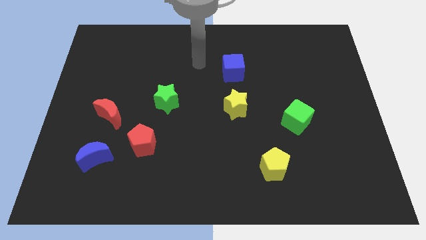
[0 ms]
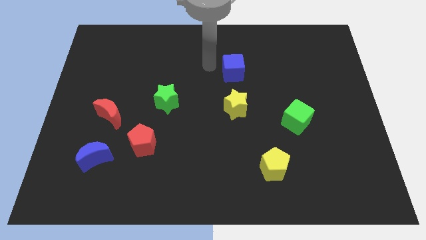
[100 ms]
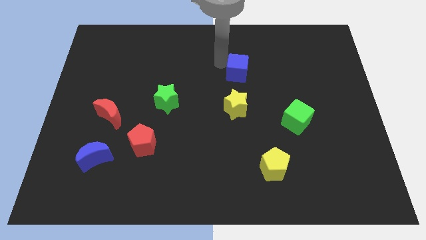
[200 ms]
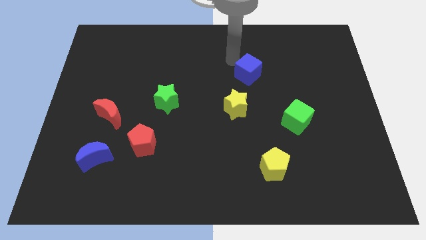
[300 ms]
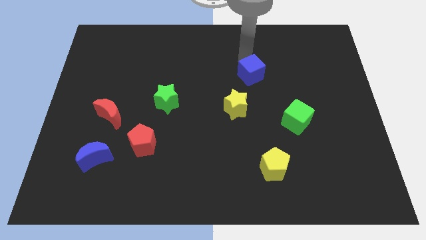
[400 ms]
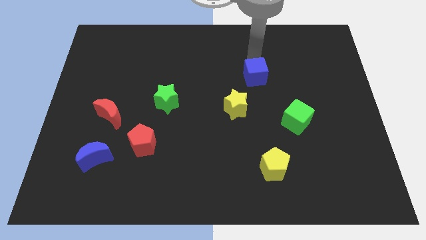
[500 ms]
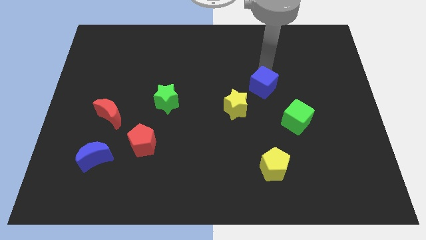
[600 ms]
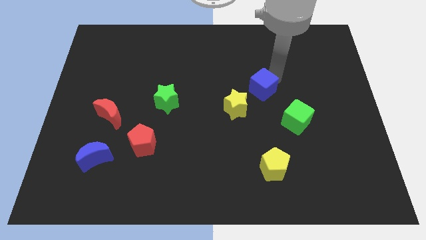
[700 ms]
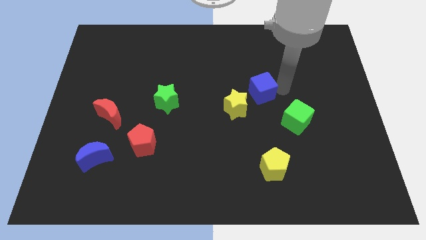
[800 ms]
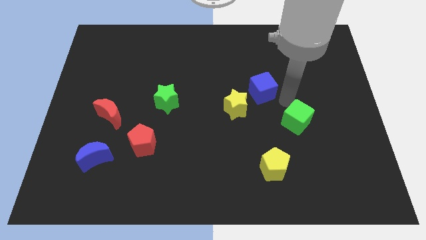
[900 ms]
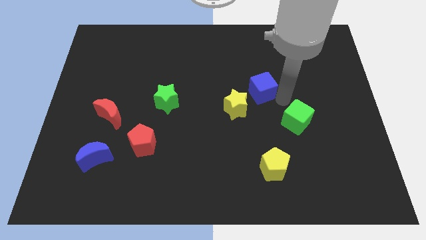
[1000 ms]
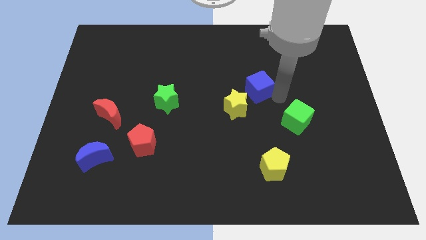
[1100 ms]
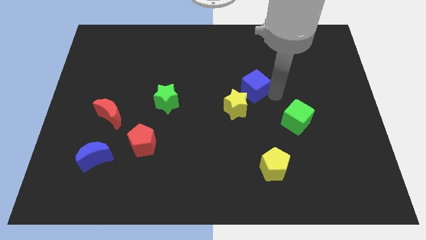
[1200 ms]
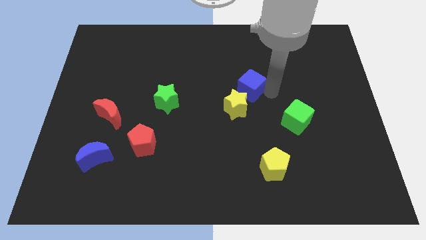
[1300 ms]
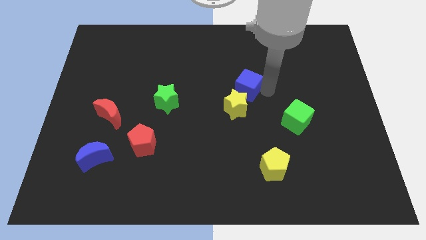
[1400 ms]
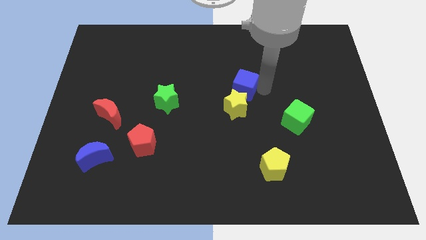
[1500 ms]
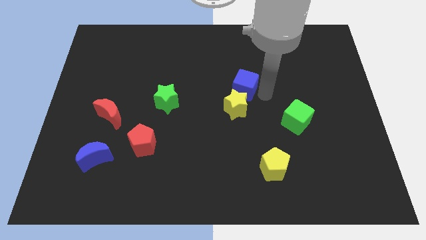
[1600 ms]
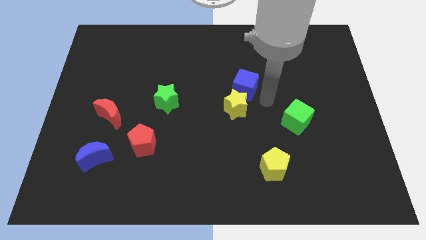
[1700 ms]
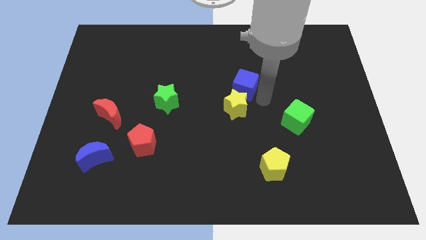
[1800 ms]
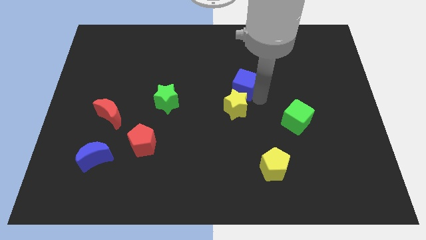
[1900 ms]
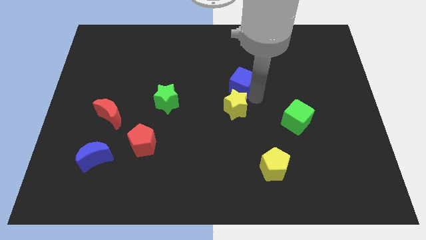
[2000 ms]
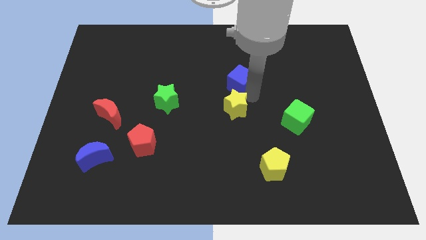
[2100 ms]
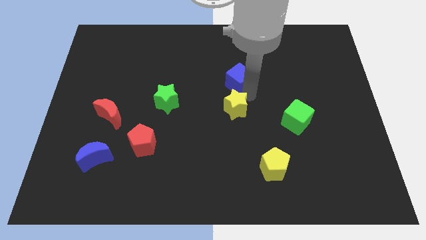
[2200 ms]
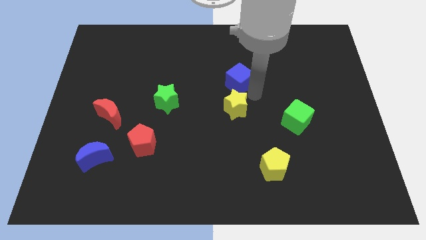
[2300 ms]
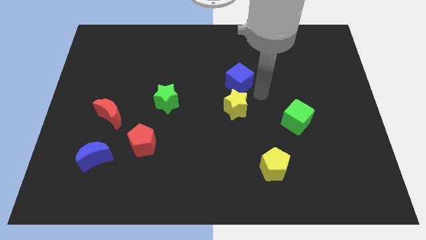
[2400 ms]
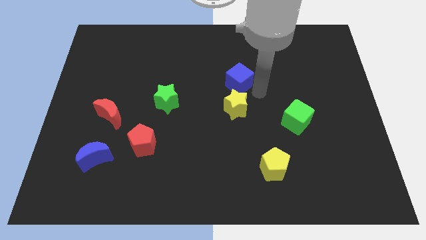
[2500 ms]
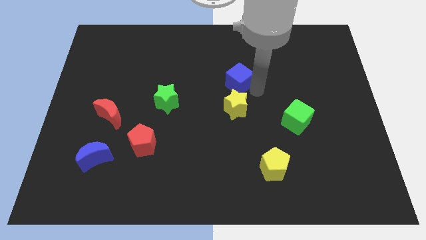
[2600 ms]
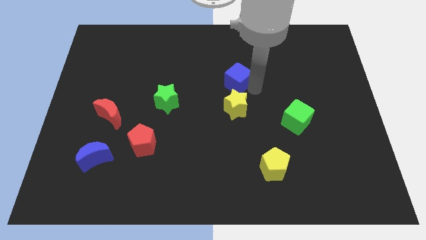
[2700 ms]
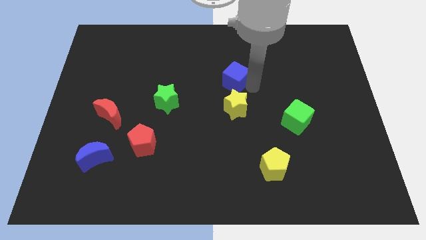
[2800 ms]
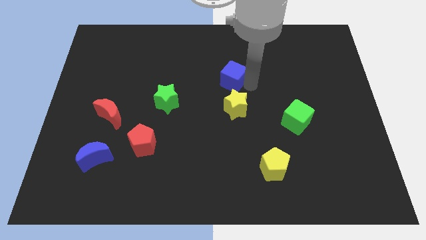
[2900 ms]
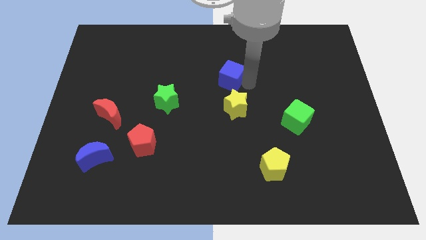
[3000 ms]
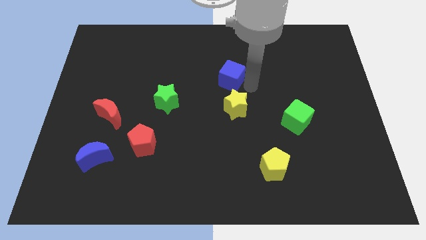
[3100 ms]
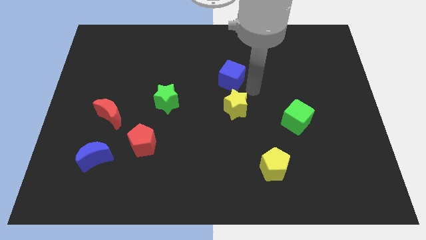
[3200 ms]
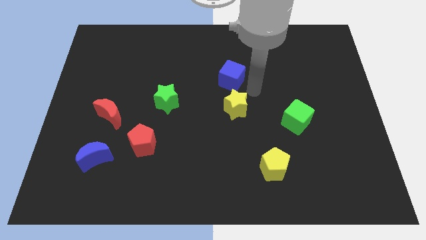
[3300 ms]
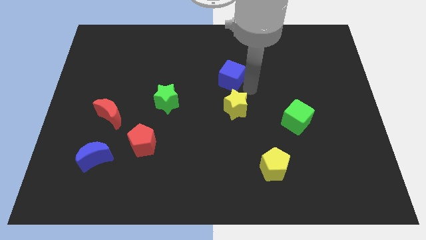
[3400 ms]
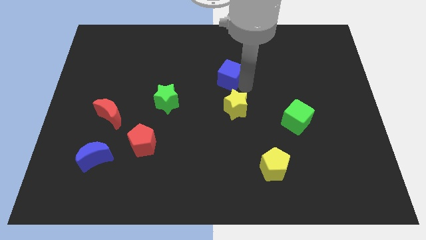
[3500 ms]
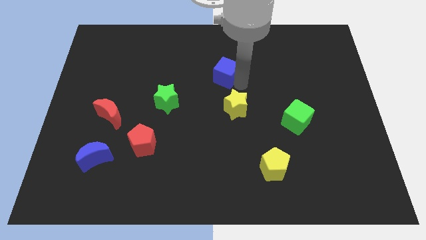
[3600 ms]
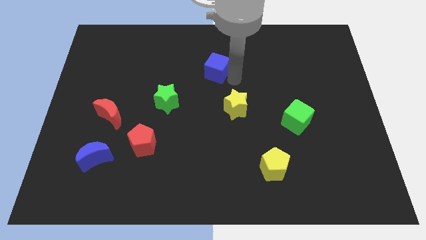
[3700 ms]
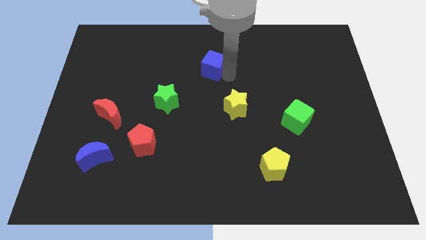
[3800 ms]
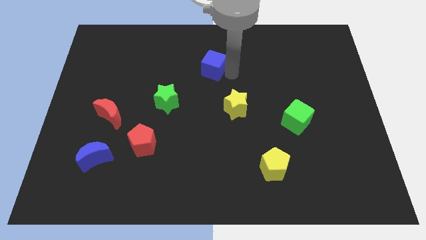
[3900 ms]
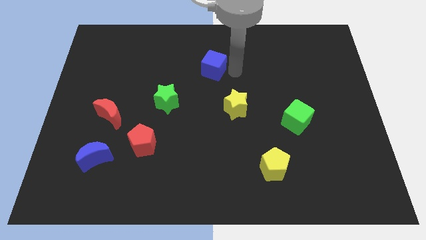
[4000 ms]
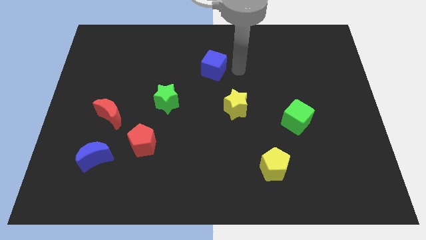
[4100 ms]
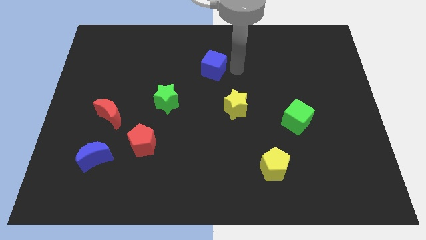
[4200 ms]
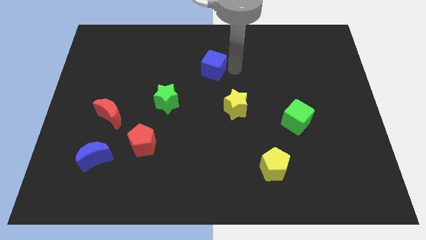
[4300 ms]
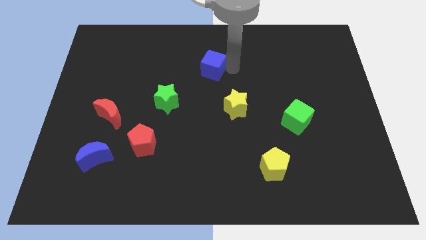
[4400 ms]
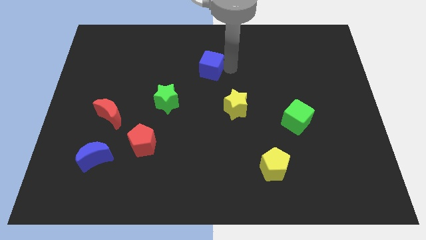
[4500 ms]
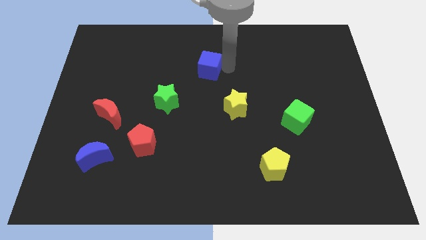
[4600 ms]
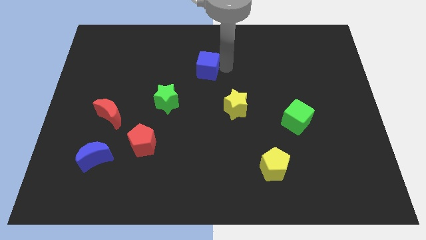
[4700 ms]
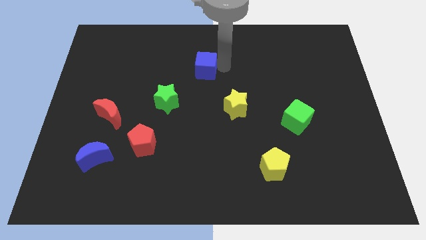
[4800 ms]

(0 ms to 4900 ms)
move the blue cube a little left

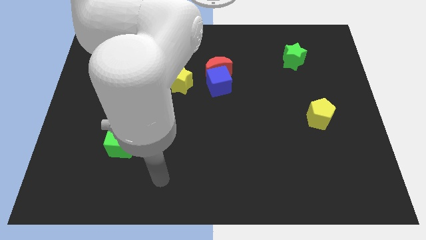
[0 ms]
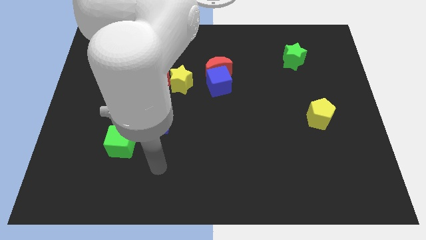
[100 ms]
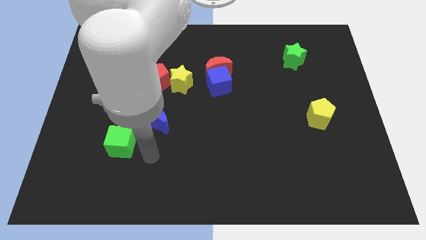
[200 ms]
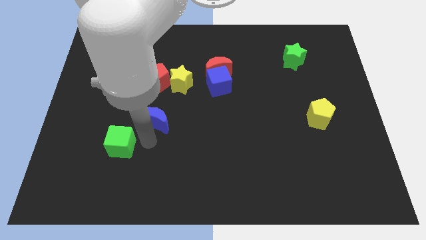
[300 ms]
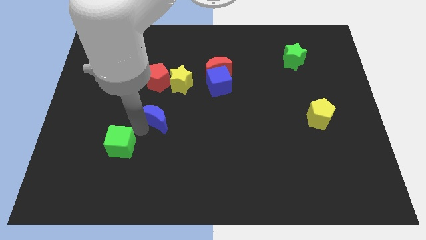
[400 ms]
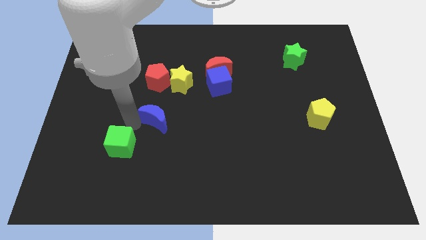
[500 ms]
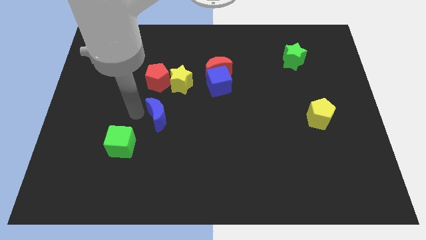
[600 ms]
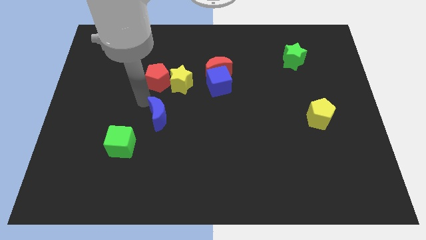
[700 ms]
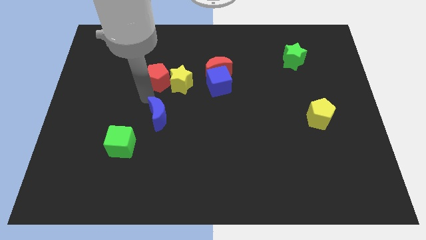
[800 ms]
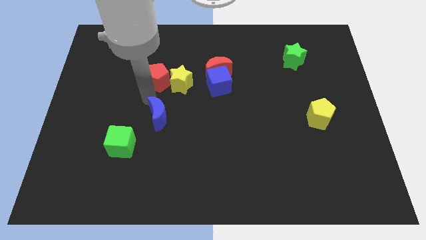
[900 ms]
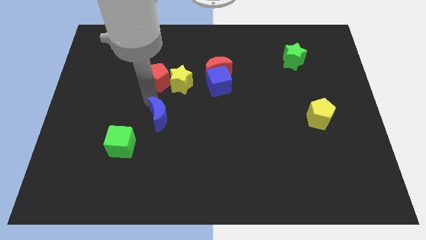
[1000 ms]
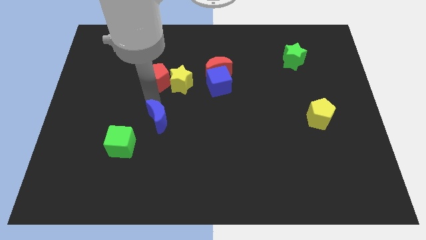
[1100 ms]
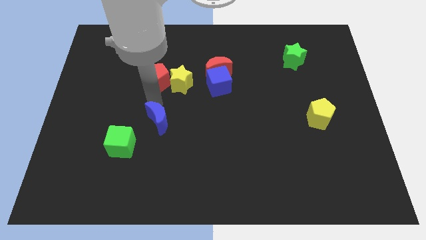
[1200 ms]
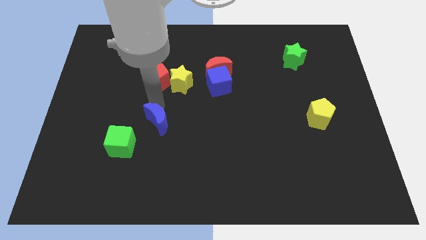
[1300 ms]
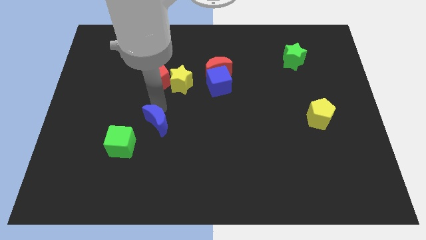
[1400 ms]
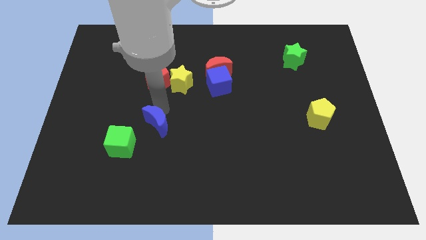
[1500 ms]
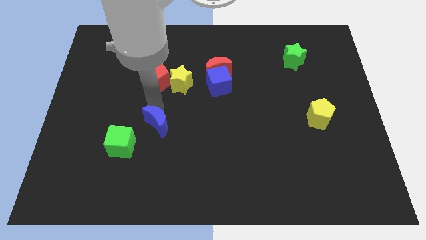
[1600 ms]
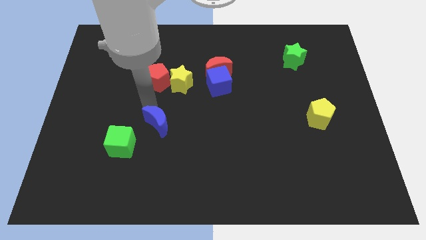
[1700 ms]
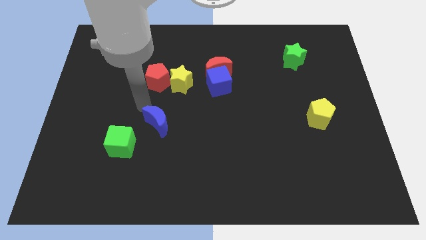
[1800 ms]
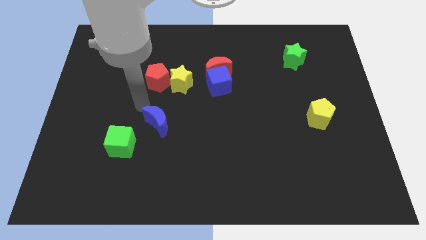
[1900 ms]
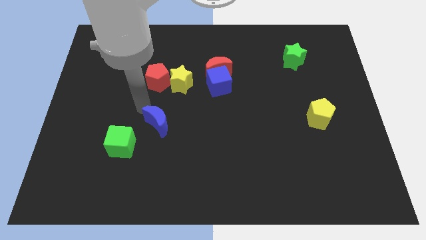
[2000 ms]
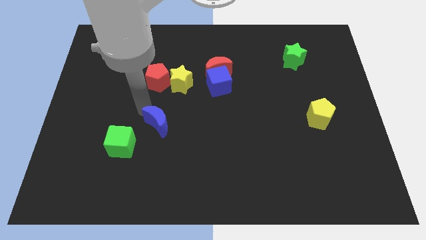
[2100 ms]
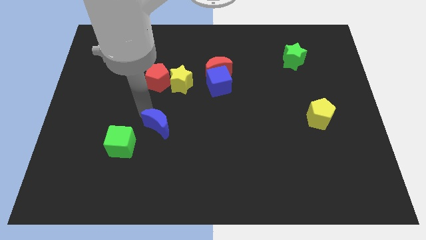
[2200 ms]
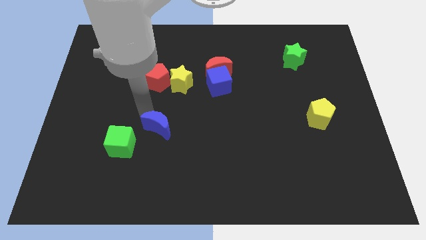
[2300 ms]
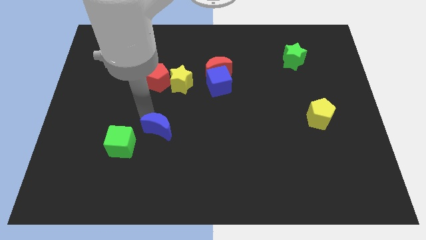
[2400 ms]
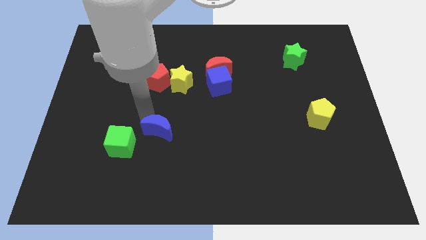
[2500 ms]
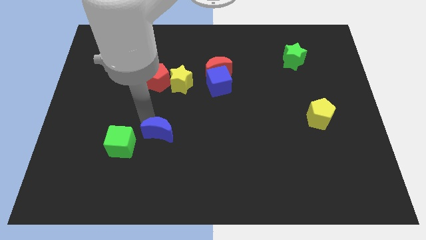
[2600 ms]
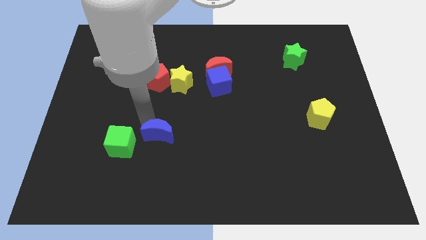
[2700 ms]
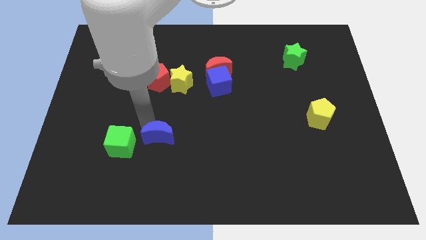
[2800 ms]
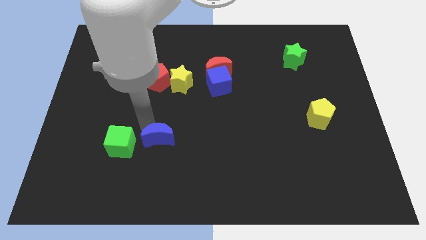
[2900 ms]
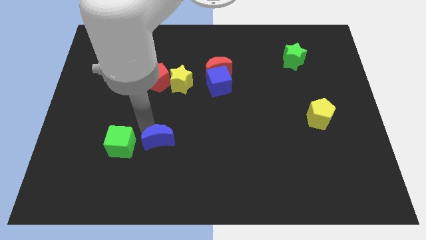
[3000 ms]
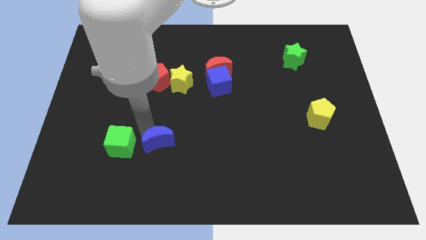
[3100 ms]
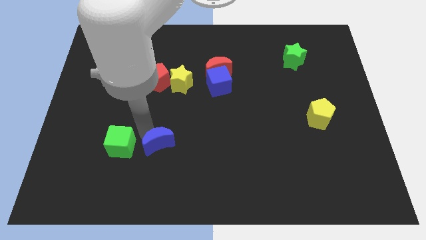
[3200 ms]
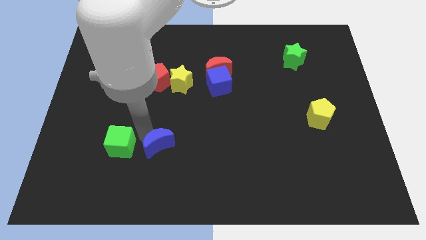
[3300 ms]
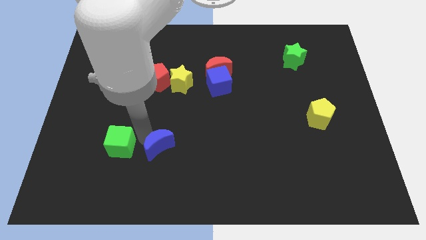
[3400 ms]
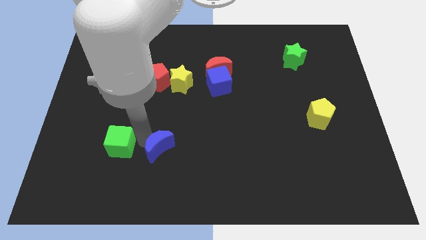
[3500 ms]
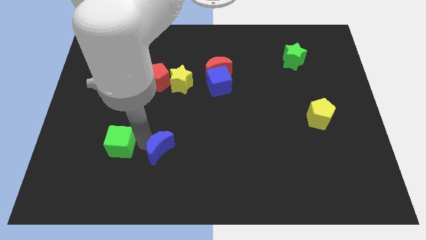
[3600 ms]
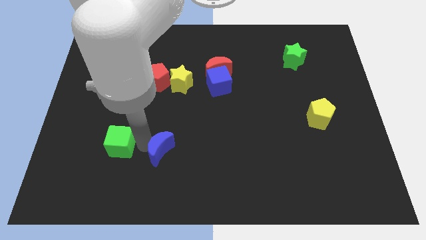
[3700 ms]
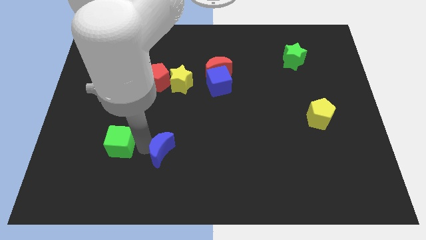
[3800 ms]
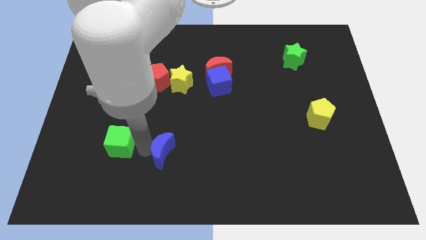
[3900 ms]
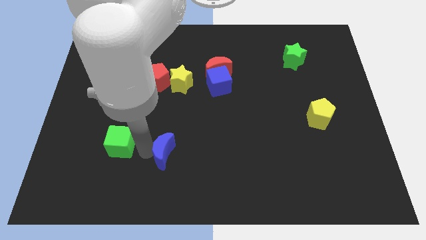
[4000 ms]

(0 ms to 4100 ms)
slightly move the blue moon downwards and right diagonally
